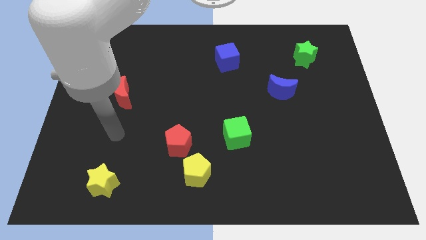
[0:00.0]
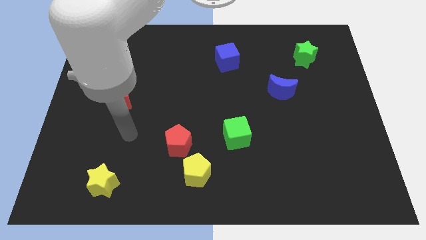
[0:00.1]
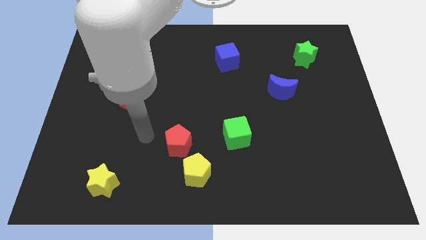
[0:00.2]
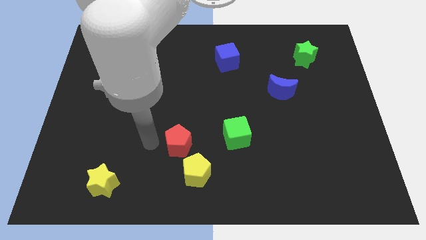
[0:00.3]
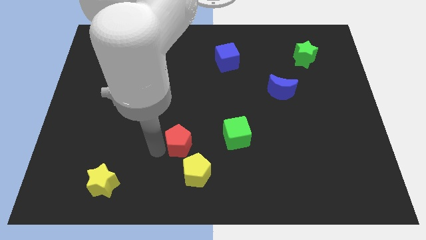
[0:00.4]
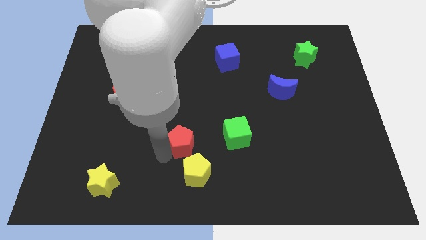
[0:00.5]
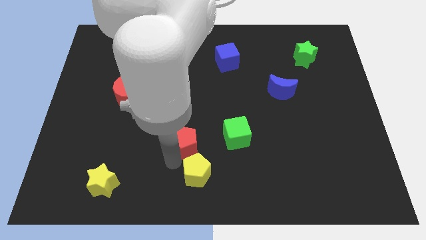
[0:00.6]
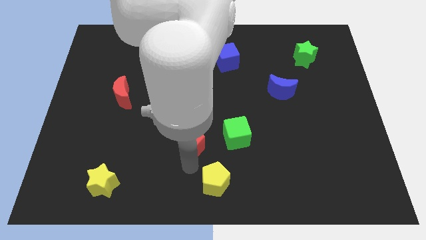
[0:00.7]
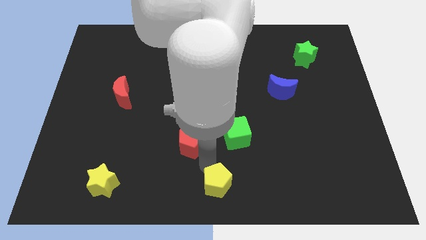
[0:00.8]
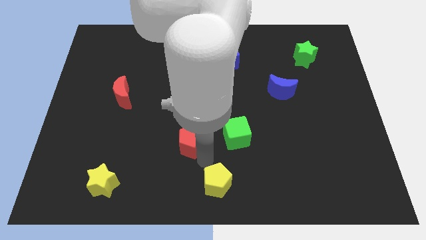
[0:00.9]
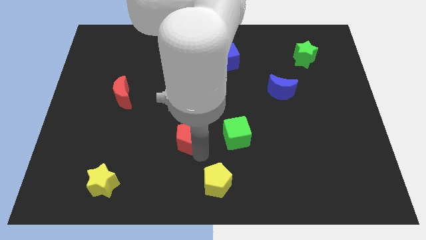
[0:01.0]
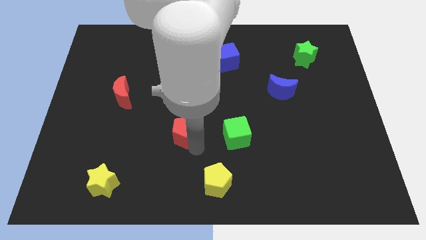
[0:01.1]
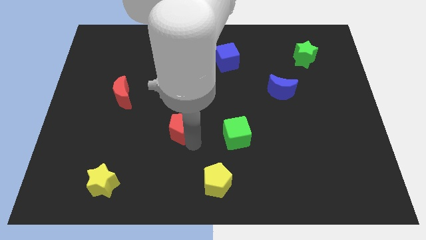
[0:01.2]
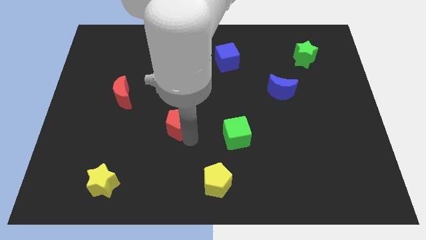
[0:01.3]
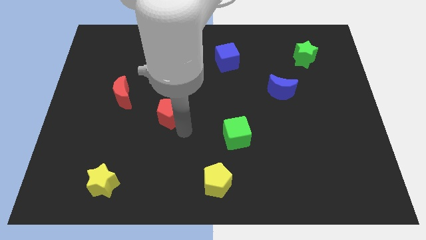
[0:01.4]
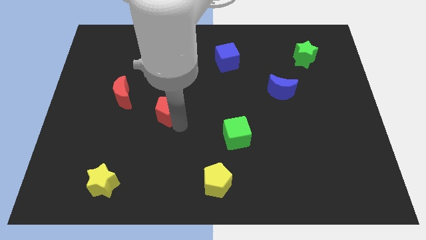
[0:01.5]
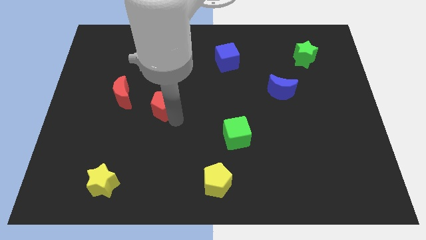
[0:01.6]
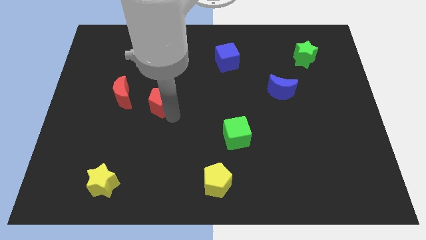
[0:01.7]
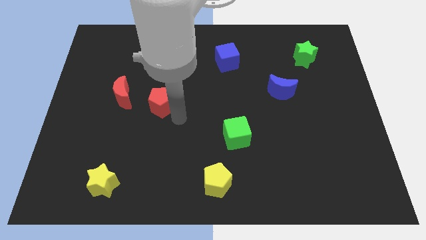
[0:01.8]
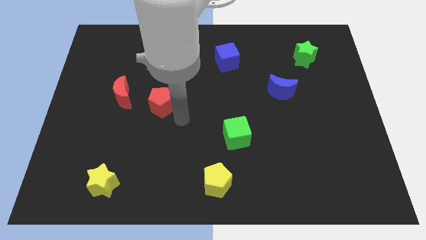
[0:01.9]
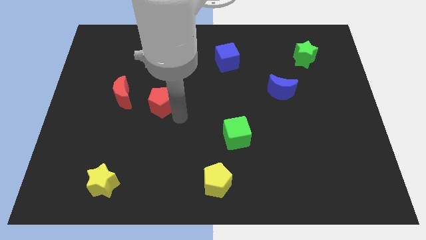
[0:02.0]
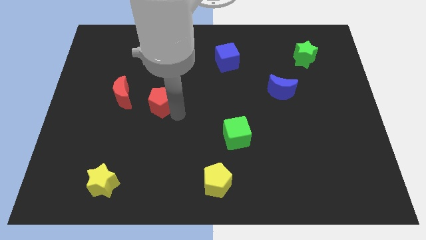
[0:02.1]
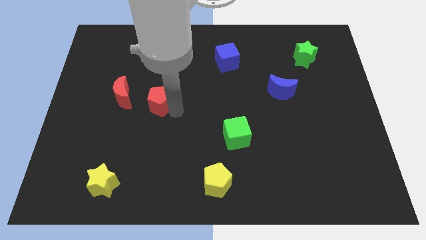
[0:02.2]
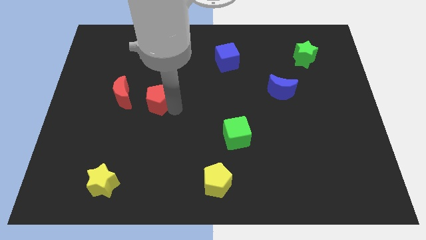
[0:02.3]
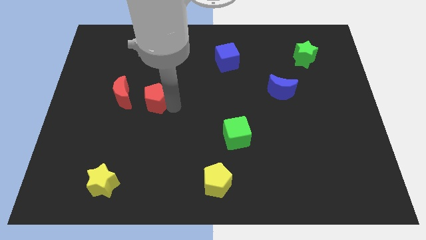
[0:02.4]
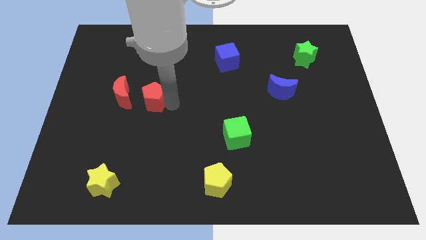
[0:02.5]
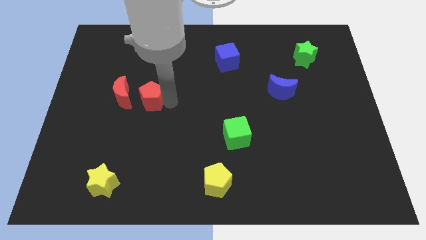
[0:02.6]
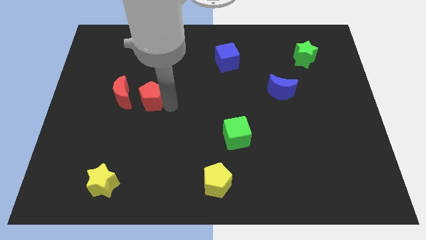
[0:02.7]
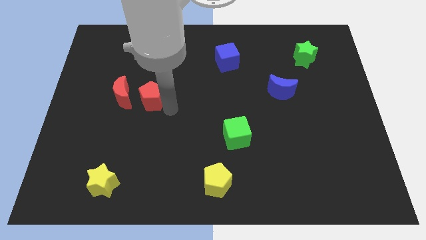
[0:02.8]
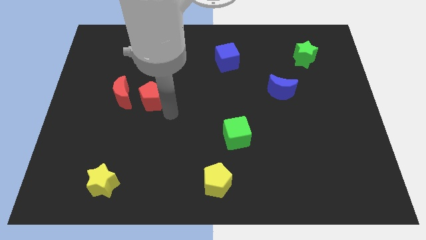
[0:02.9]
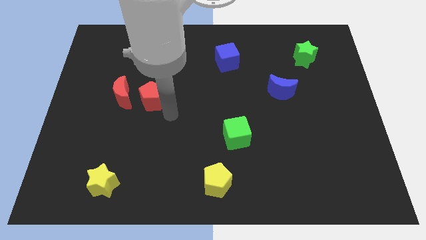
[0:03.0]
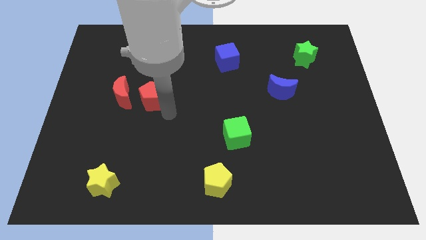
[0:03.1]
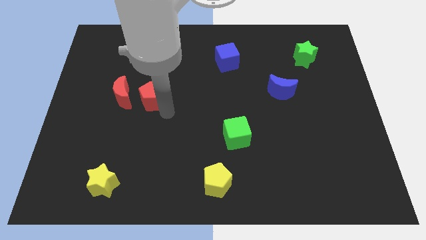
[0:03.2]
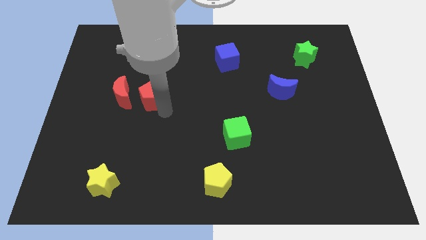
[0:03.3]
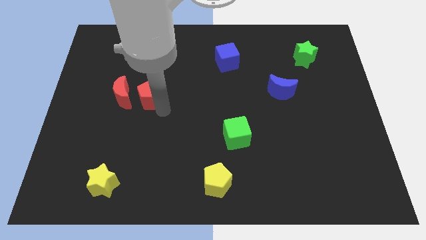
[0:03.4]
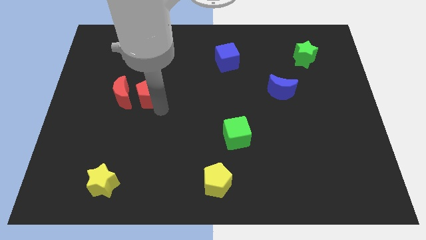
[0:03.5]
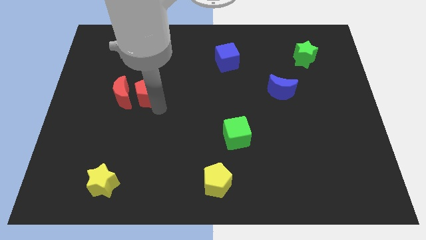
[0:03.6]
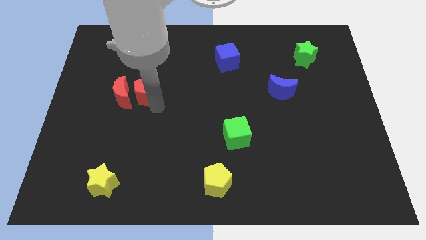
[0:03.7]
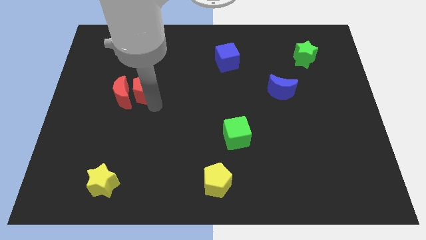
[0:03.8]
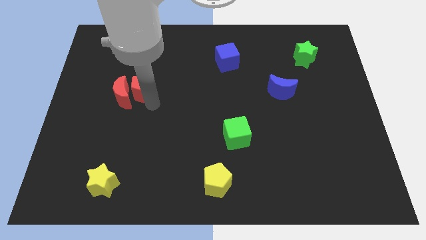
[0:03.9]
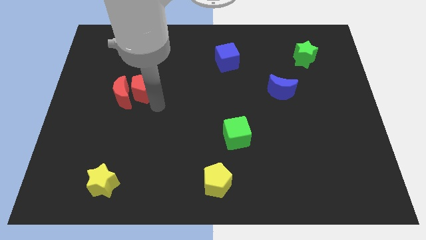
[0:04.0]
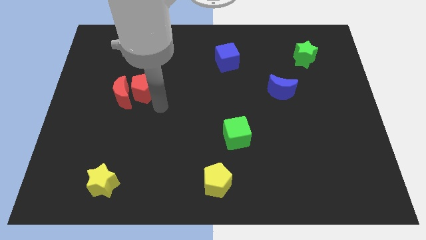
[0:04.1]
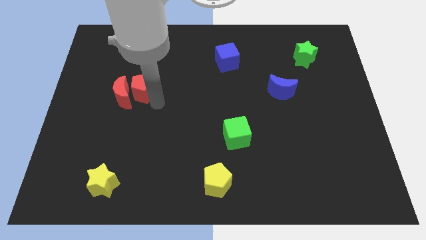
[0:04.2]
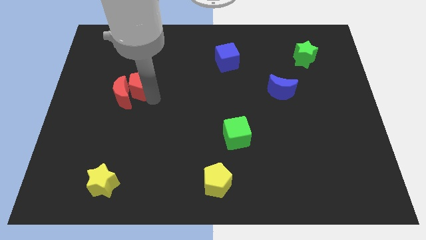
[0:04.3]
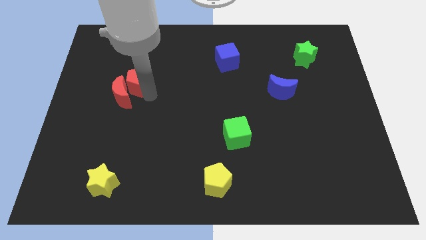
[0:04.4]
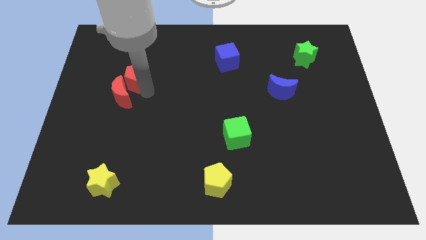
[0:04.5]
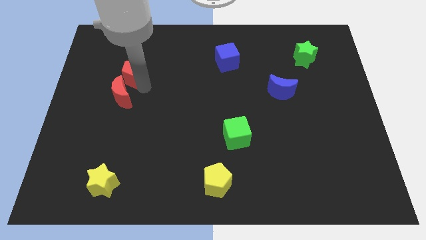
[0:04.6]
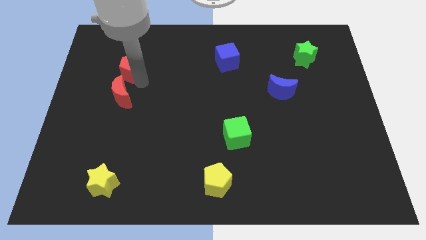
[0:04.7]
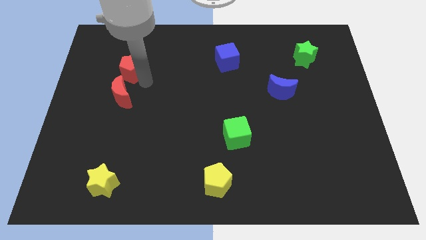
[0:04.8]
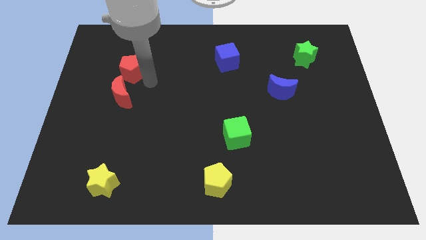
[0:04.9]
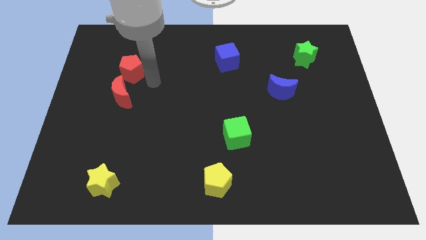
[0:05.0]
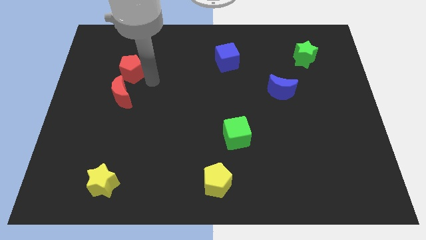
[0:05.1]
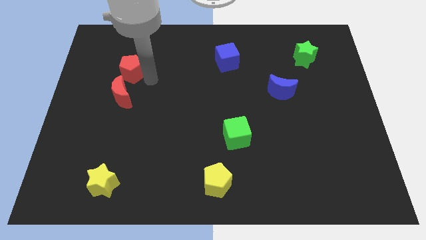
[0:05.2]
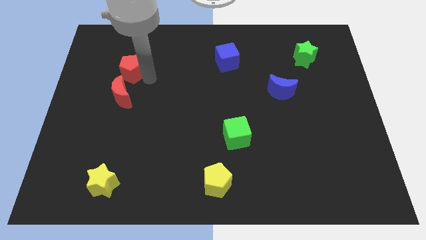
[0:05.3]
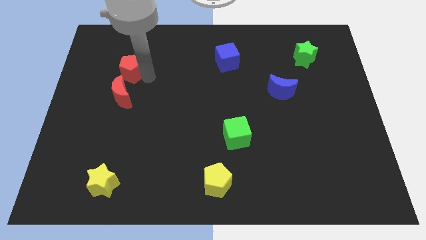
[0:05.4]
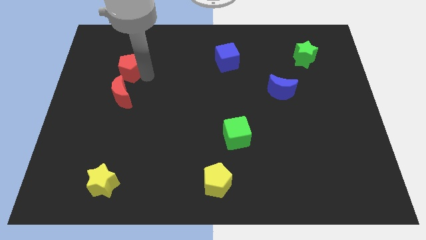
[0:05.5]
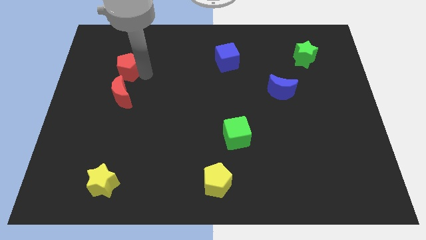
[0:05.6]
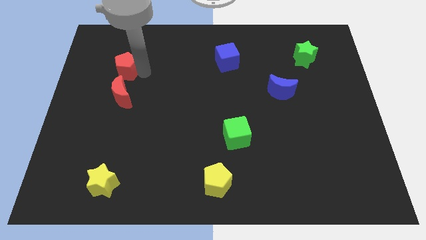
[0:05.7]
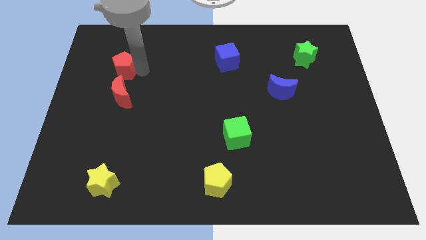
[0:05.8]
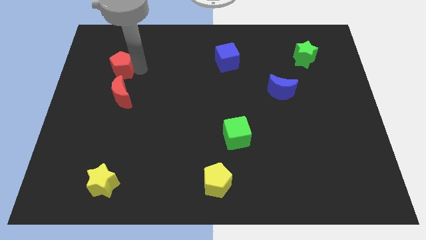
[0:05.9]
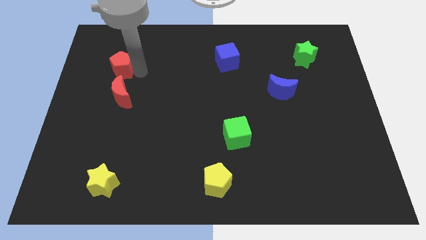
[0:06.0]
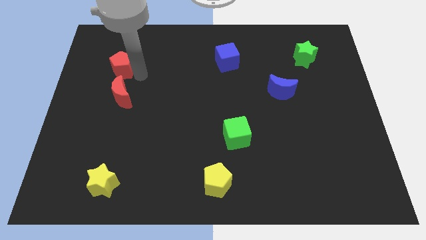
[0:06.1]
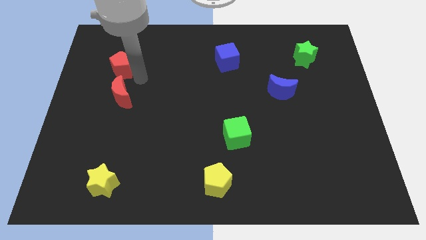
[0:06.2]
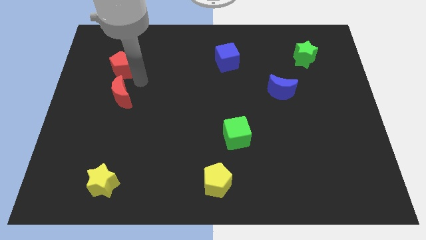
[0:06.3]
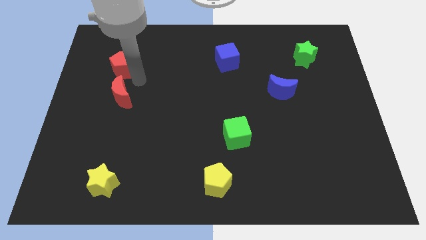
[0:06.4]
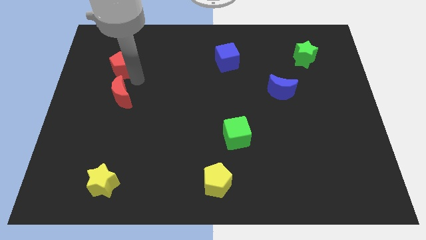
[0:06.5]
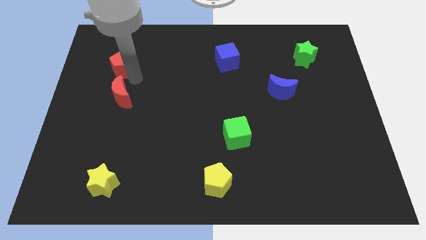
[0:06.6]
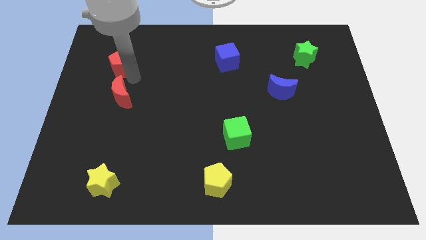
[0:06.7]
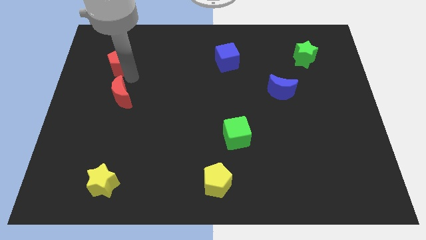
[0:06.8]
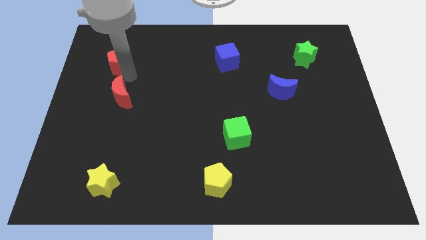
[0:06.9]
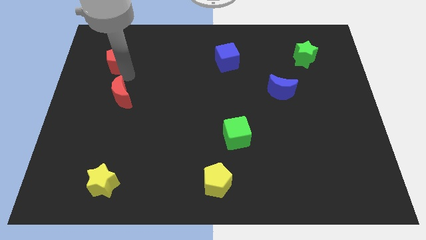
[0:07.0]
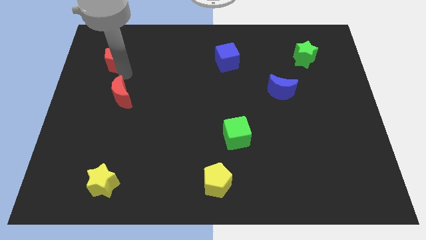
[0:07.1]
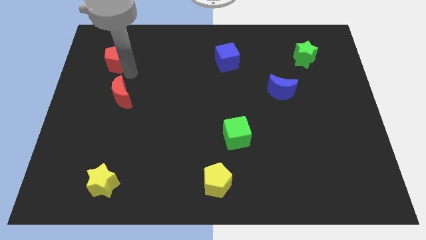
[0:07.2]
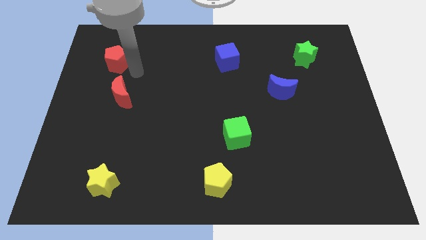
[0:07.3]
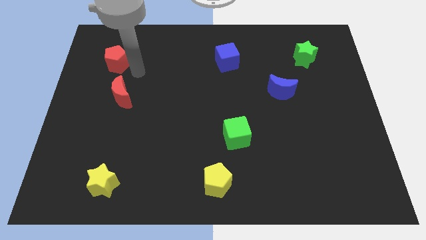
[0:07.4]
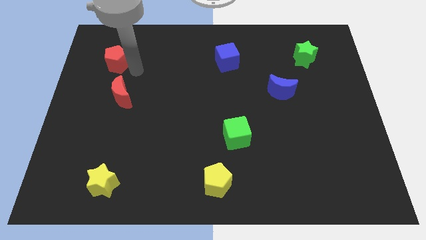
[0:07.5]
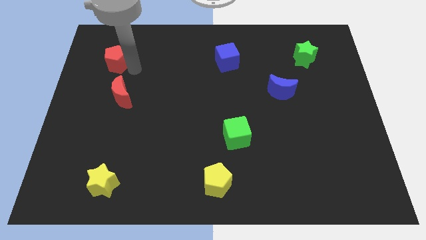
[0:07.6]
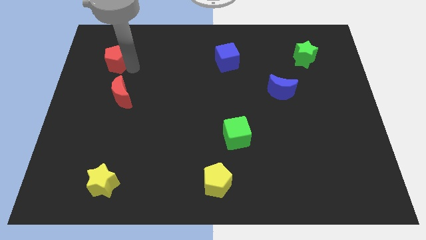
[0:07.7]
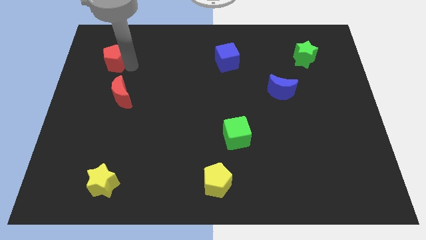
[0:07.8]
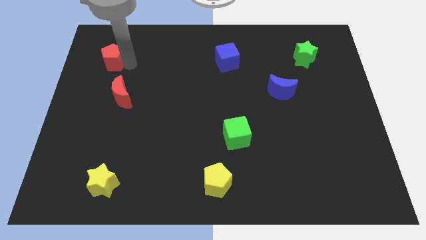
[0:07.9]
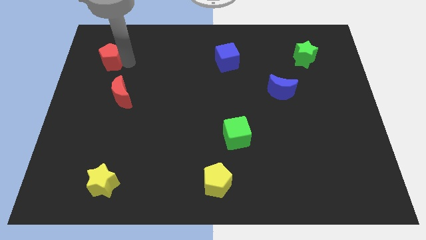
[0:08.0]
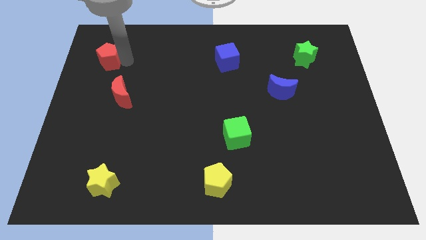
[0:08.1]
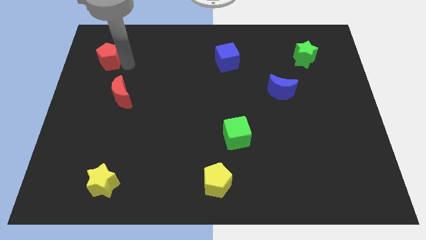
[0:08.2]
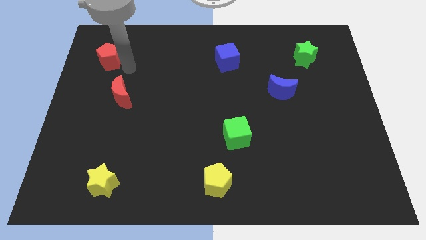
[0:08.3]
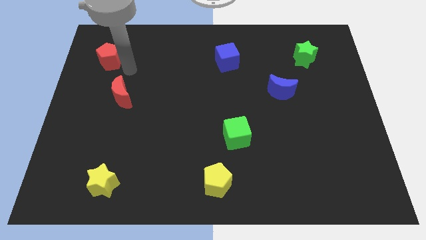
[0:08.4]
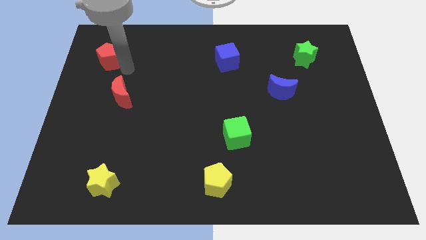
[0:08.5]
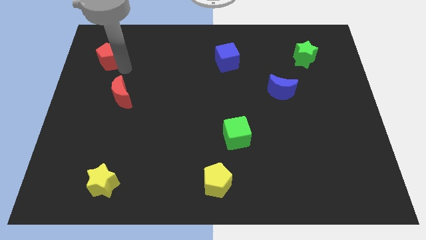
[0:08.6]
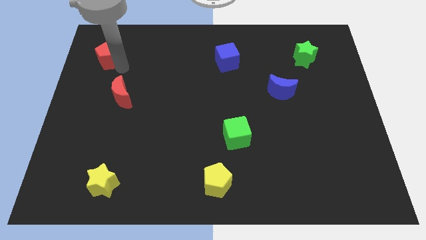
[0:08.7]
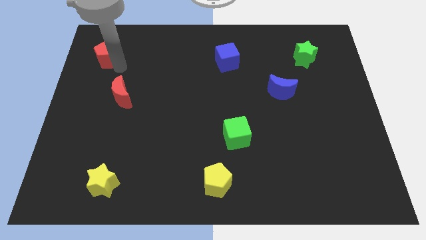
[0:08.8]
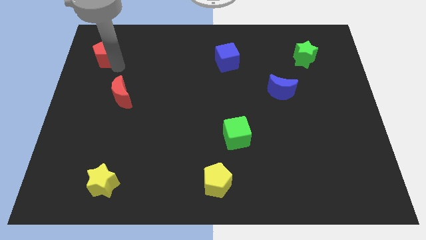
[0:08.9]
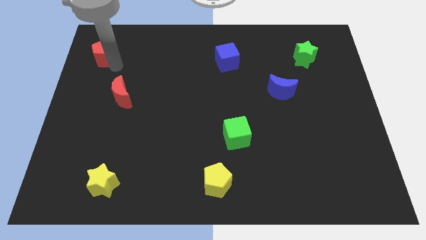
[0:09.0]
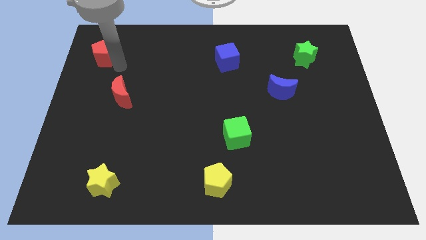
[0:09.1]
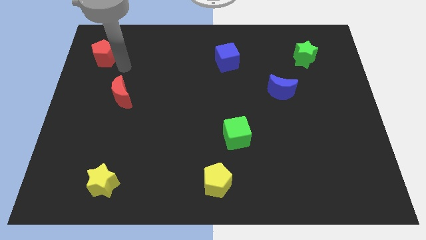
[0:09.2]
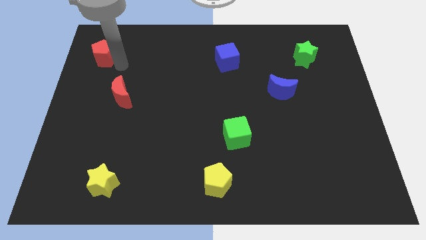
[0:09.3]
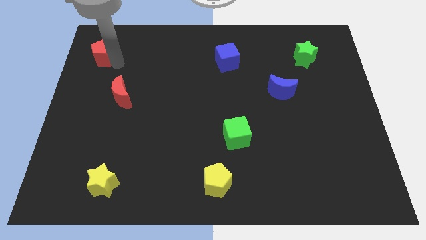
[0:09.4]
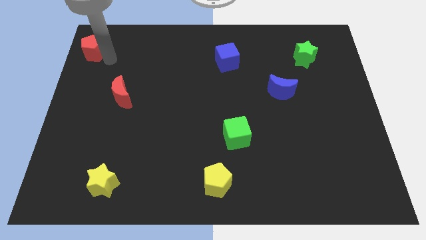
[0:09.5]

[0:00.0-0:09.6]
push the red pentagon to the top left
